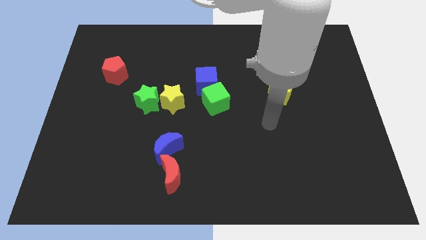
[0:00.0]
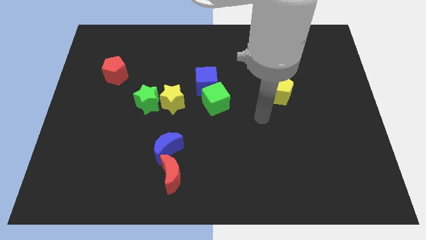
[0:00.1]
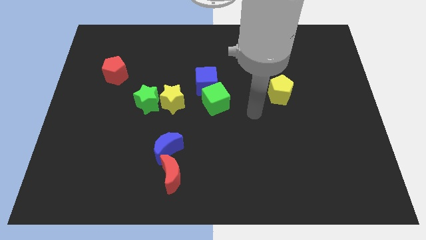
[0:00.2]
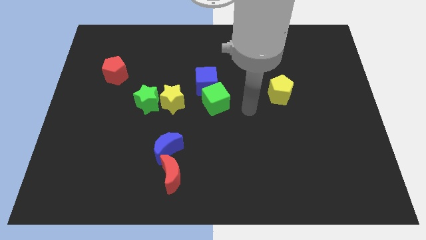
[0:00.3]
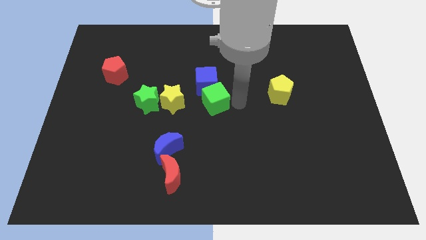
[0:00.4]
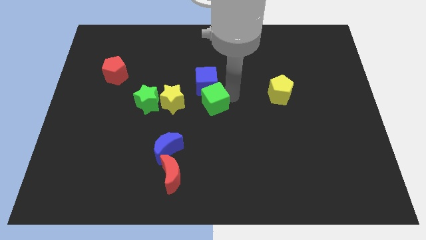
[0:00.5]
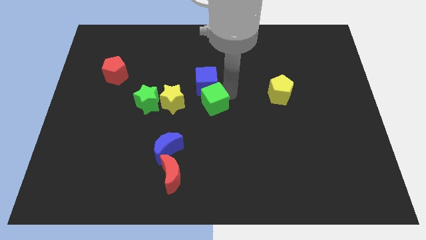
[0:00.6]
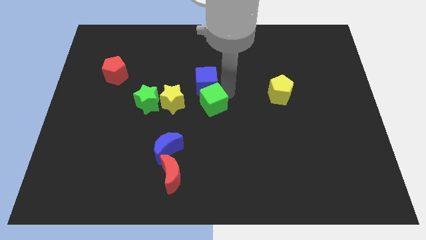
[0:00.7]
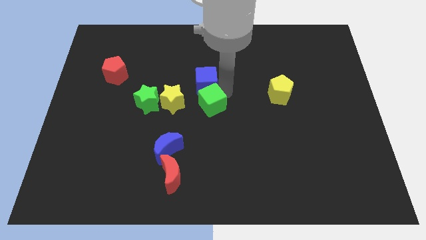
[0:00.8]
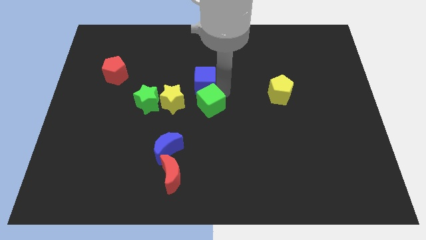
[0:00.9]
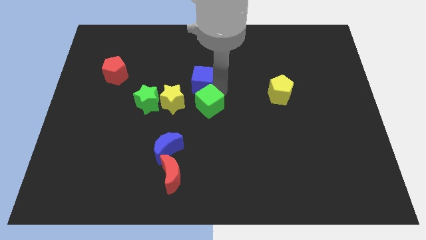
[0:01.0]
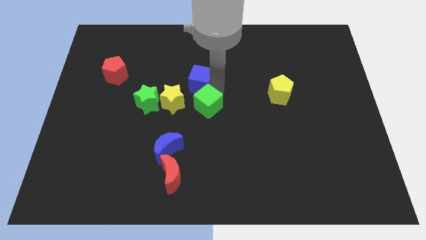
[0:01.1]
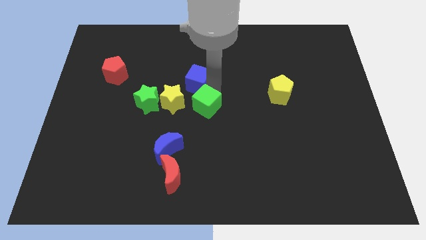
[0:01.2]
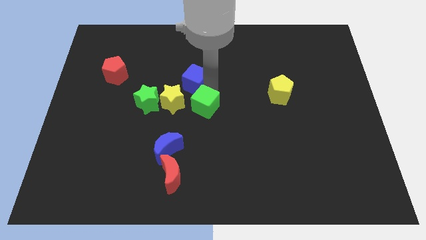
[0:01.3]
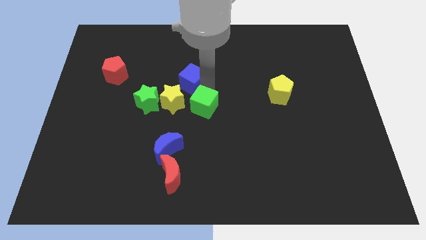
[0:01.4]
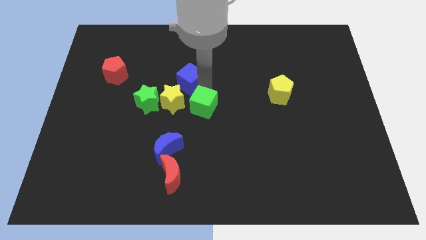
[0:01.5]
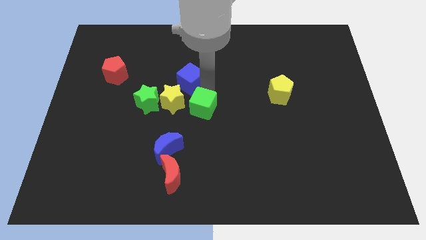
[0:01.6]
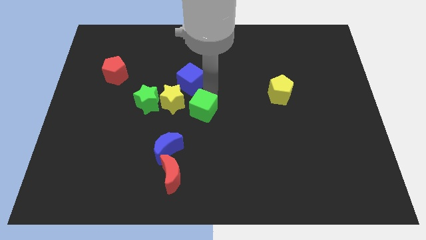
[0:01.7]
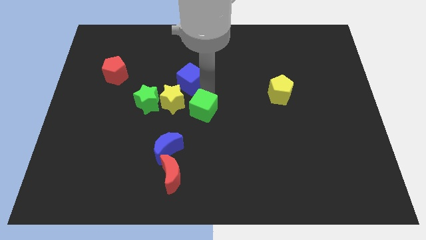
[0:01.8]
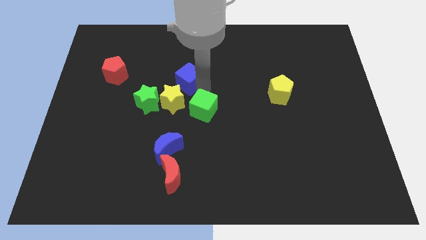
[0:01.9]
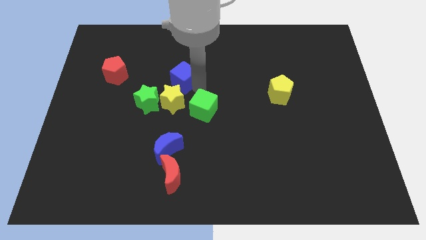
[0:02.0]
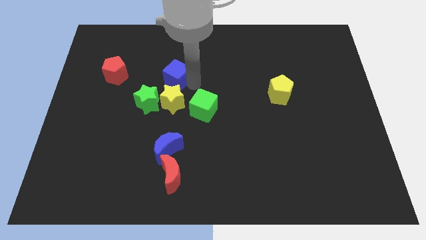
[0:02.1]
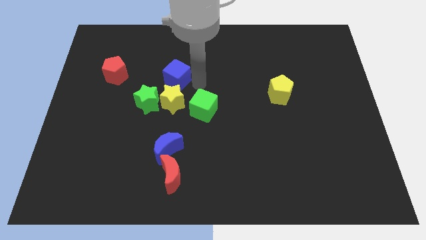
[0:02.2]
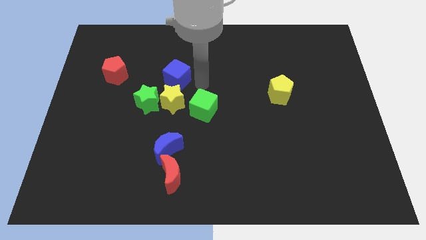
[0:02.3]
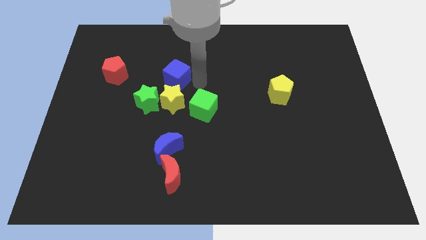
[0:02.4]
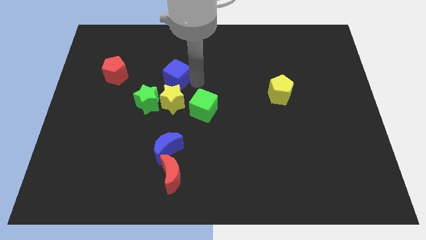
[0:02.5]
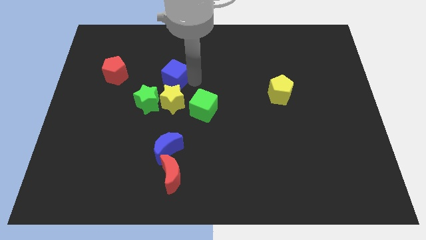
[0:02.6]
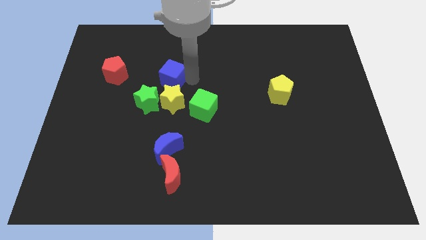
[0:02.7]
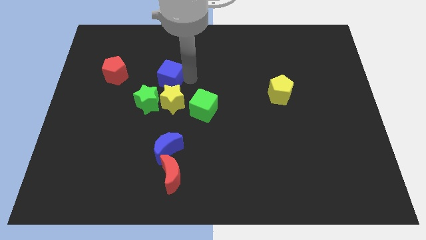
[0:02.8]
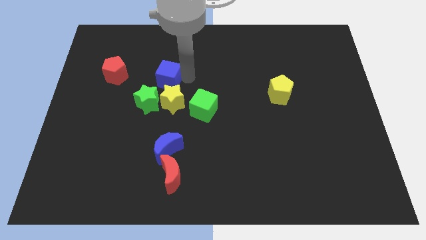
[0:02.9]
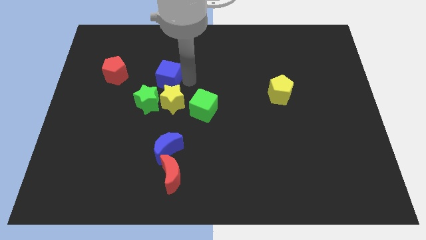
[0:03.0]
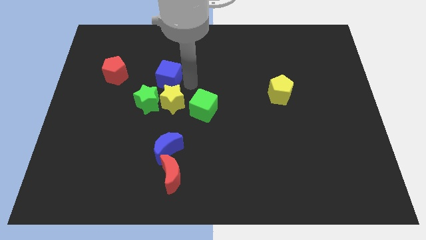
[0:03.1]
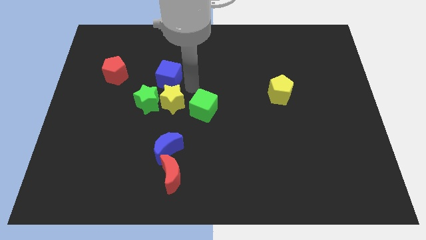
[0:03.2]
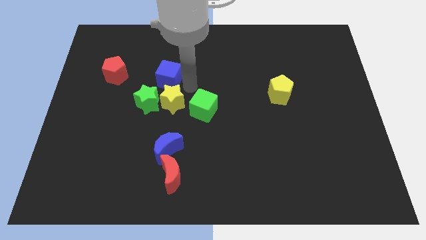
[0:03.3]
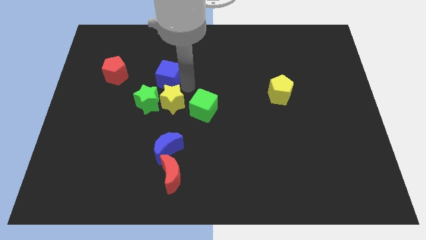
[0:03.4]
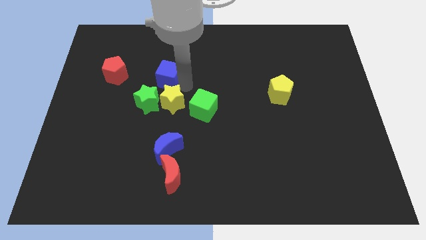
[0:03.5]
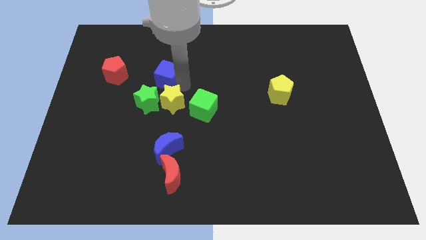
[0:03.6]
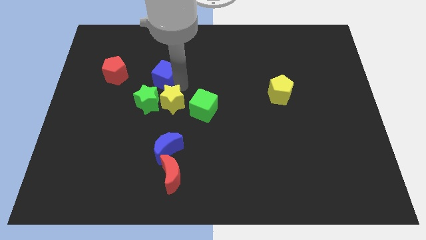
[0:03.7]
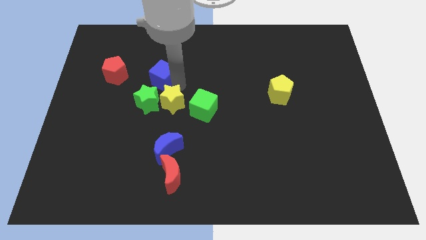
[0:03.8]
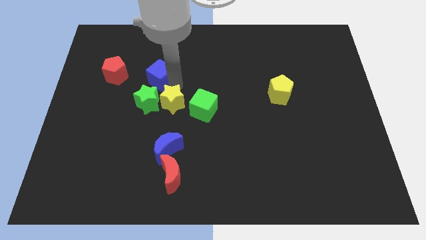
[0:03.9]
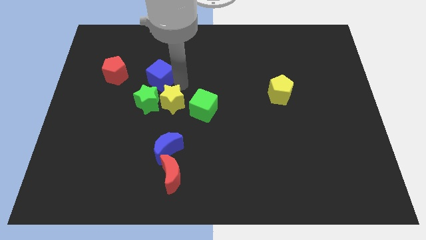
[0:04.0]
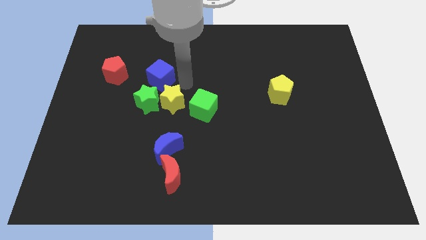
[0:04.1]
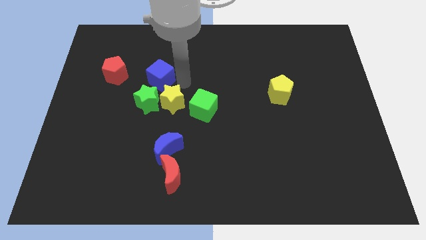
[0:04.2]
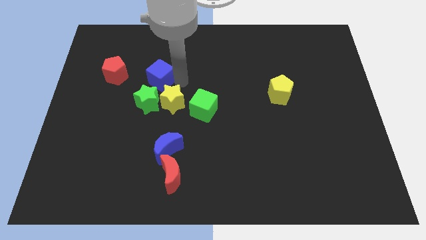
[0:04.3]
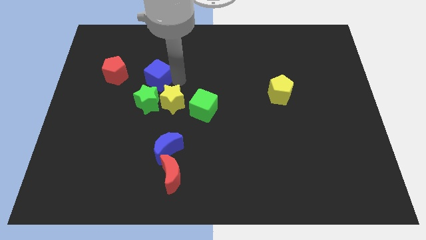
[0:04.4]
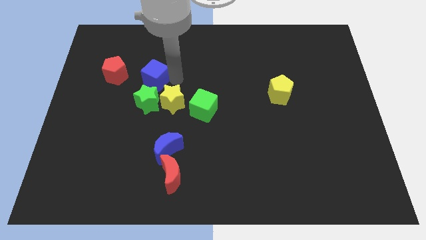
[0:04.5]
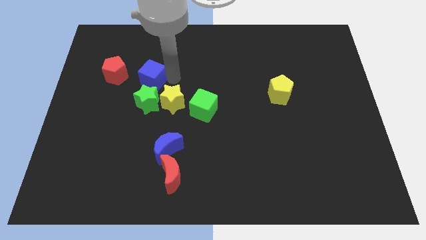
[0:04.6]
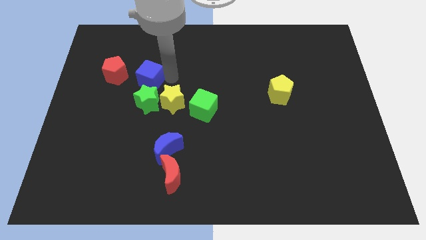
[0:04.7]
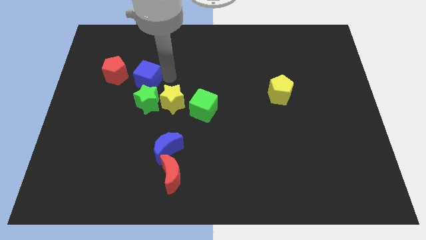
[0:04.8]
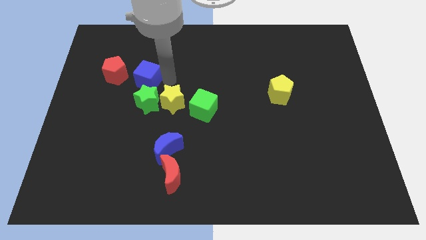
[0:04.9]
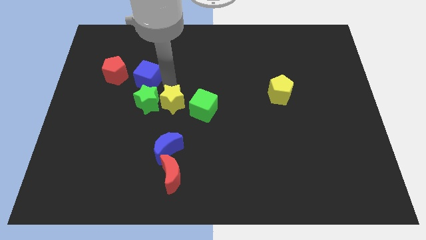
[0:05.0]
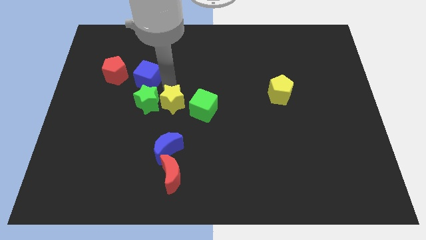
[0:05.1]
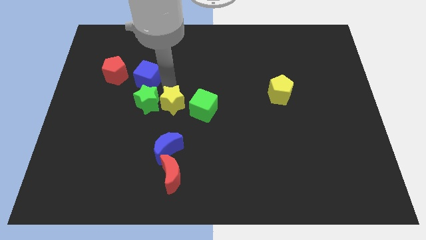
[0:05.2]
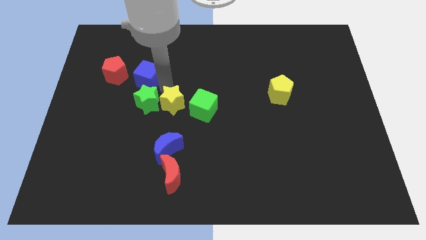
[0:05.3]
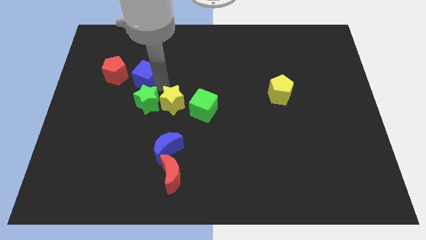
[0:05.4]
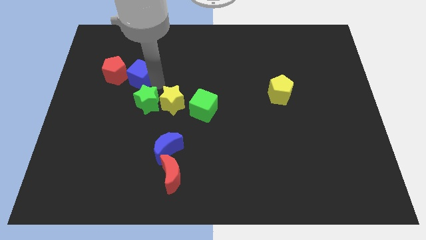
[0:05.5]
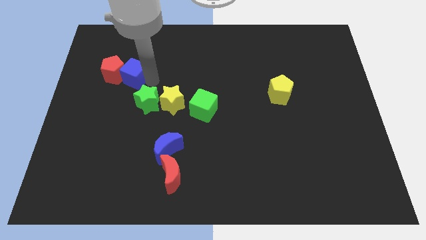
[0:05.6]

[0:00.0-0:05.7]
put the blue cube towards the red pentagon

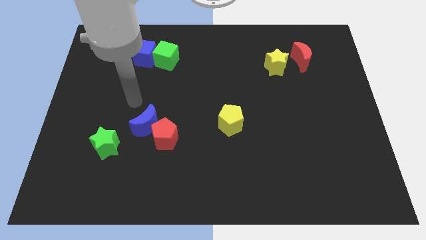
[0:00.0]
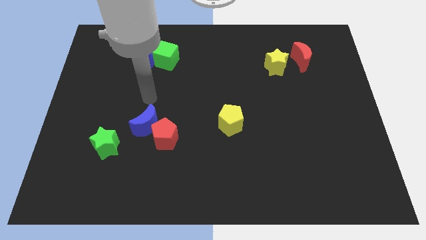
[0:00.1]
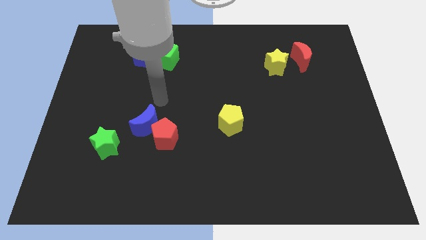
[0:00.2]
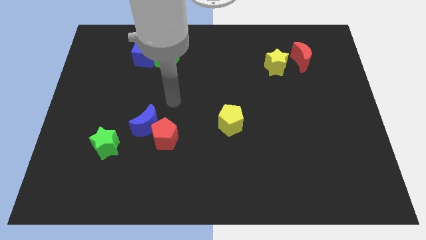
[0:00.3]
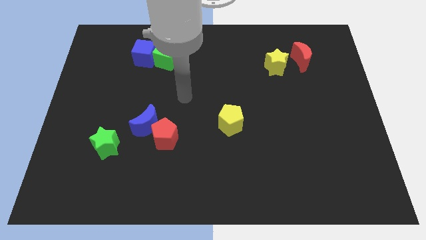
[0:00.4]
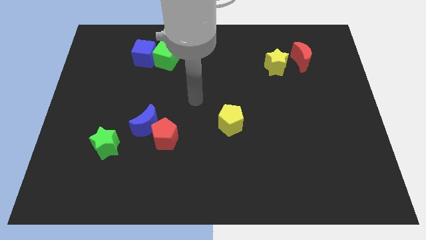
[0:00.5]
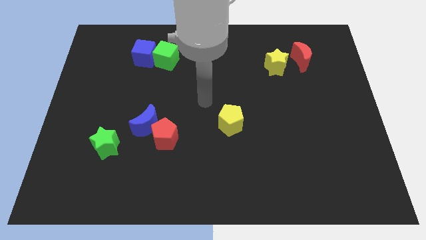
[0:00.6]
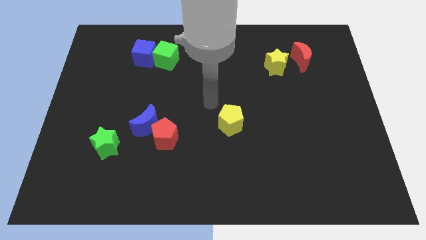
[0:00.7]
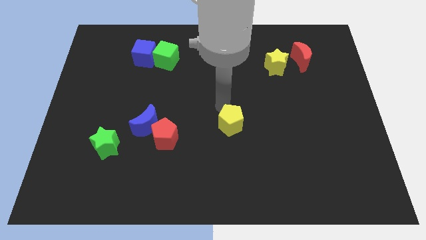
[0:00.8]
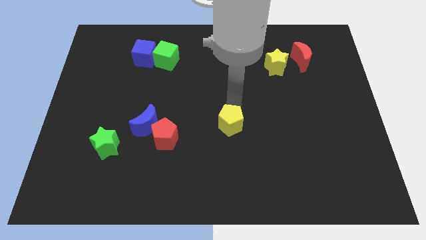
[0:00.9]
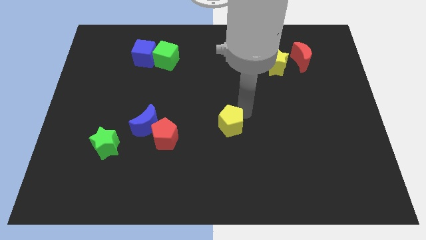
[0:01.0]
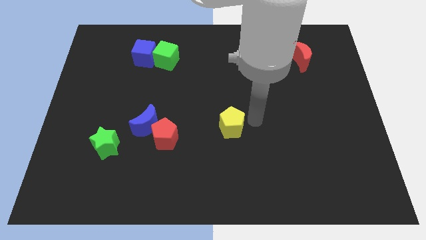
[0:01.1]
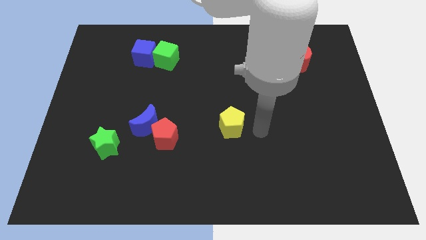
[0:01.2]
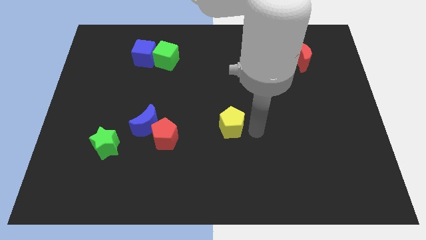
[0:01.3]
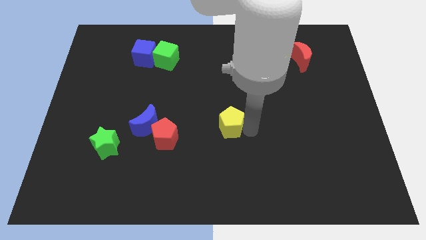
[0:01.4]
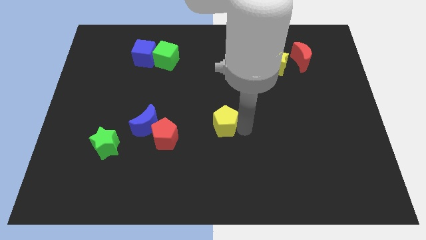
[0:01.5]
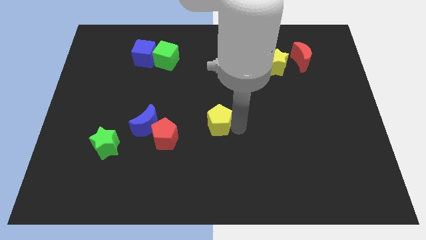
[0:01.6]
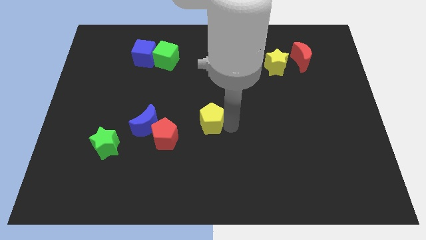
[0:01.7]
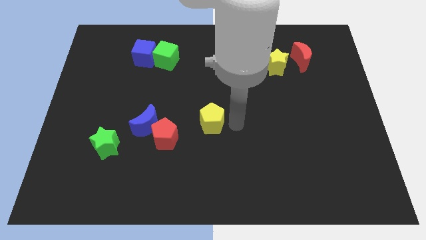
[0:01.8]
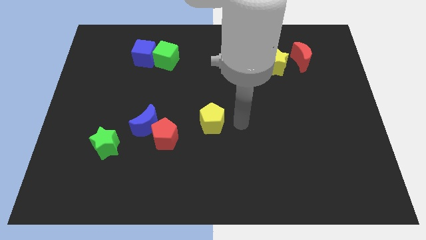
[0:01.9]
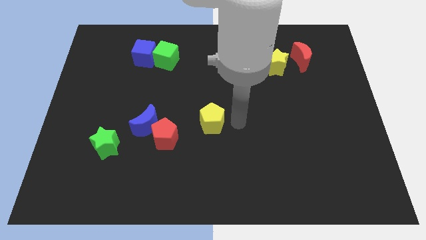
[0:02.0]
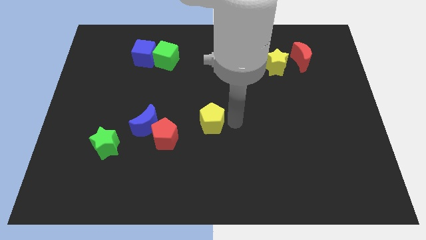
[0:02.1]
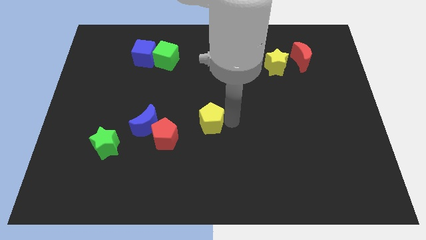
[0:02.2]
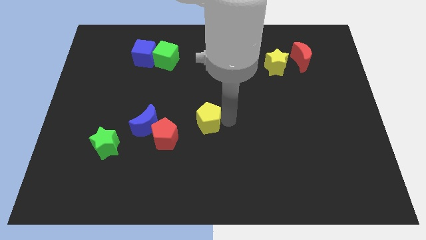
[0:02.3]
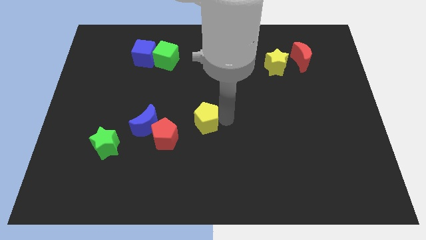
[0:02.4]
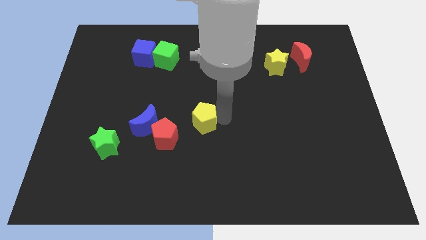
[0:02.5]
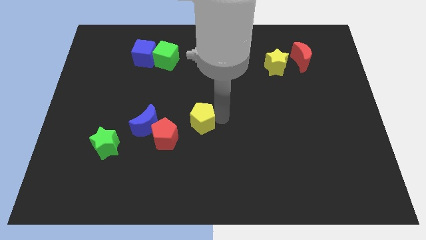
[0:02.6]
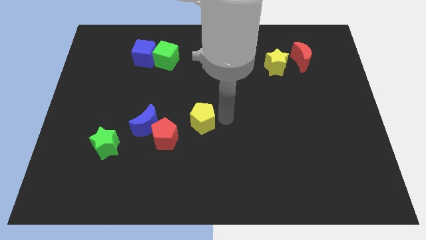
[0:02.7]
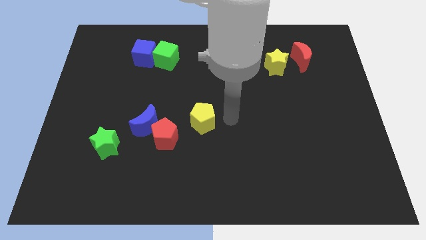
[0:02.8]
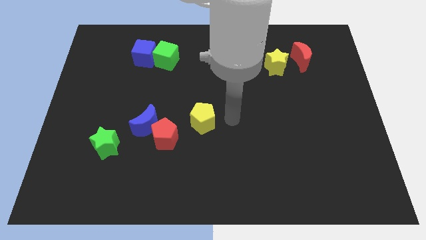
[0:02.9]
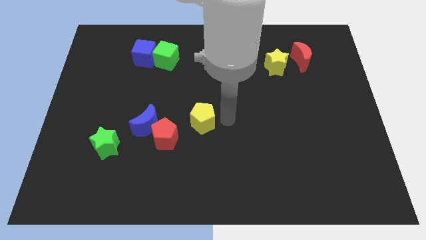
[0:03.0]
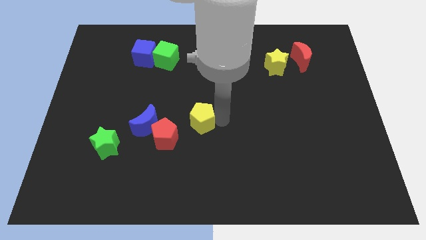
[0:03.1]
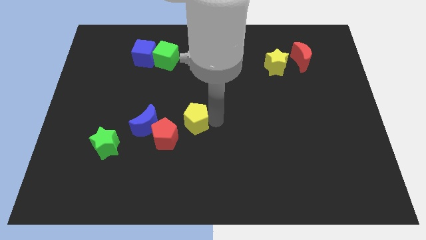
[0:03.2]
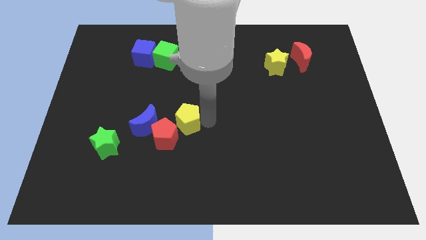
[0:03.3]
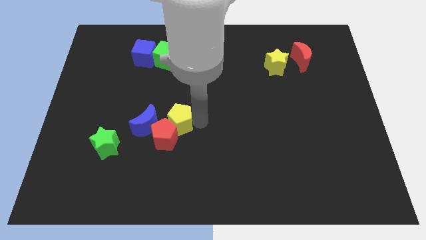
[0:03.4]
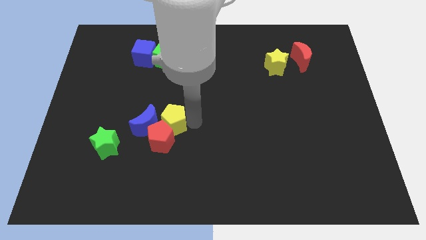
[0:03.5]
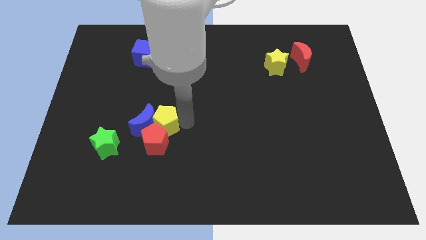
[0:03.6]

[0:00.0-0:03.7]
put the yellow pentagon to the blue moon
